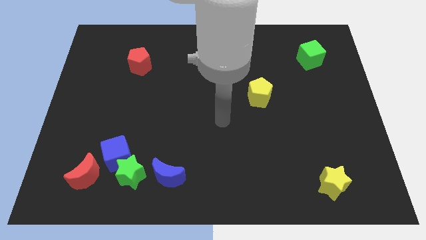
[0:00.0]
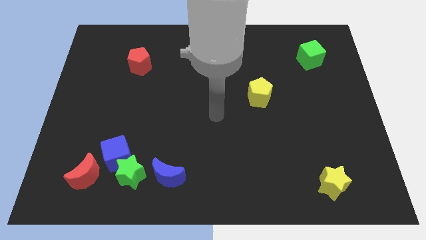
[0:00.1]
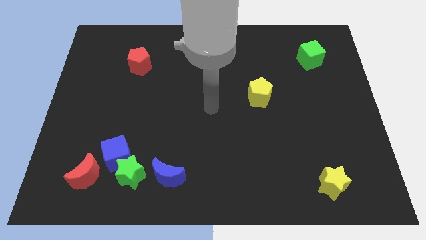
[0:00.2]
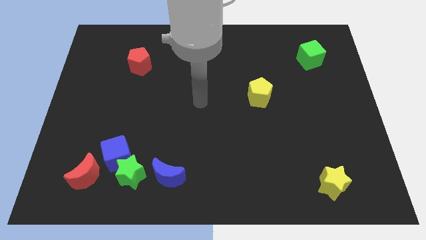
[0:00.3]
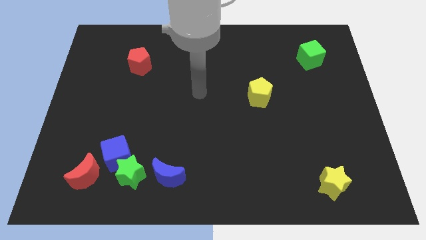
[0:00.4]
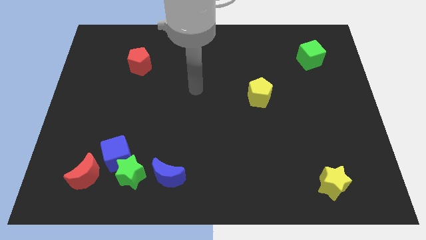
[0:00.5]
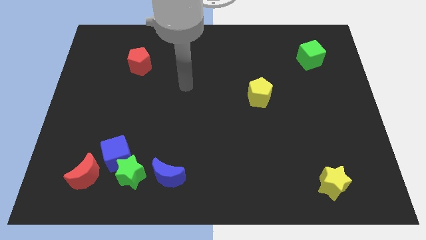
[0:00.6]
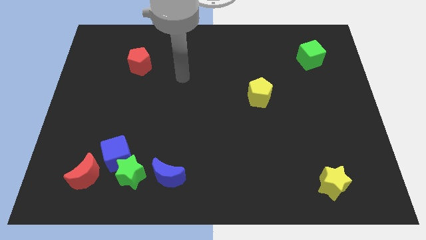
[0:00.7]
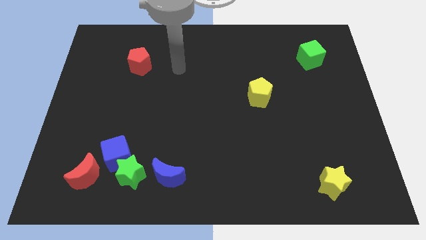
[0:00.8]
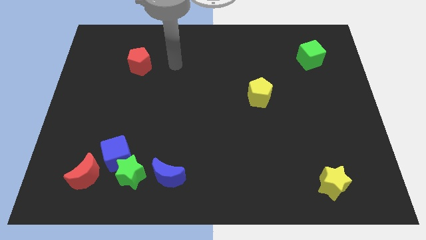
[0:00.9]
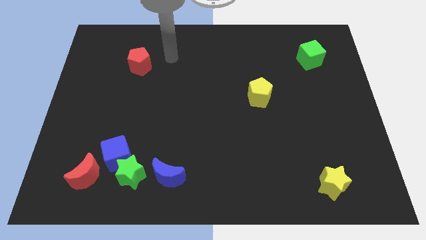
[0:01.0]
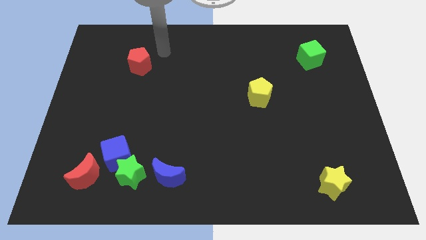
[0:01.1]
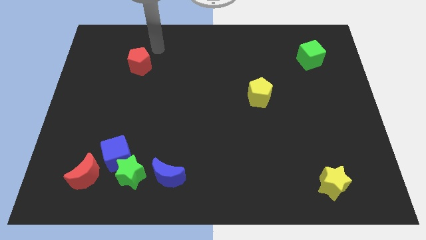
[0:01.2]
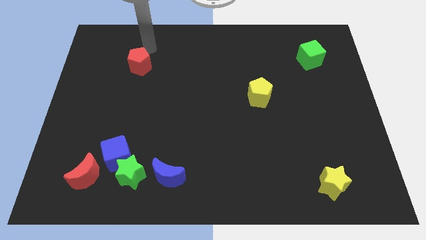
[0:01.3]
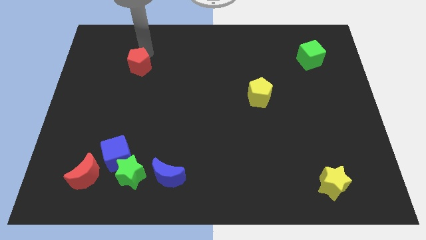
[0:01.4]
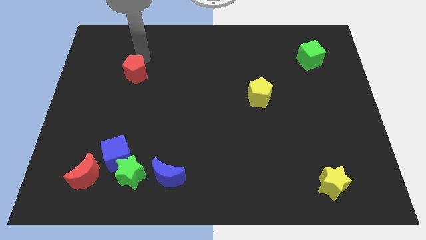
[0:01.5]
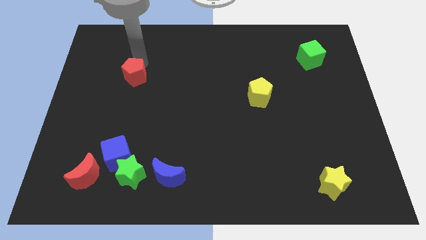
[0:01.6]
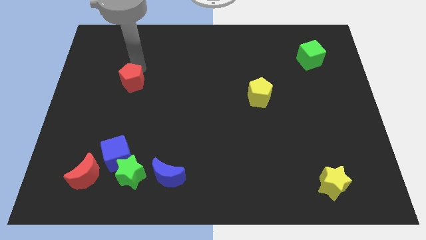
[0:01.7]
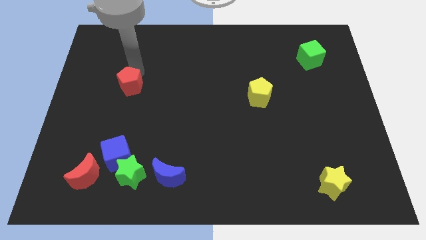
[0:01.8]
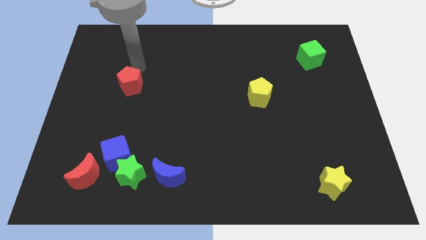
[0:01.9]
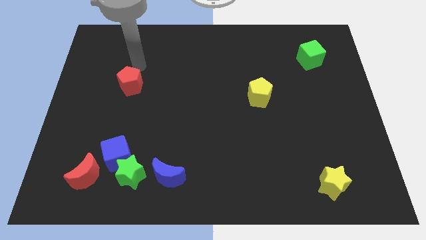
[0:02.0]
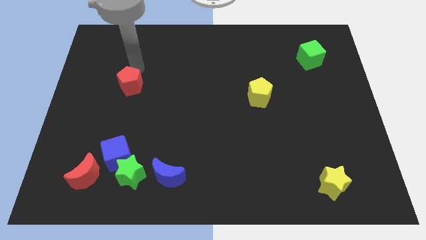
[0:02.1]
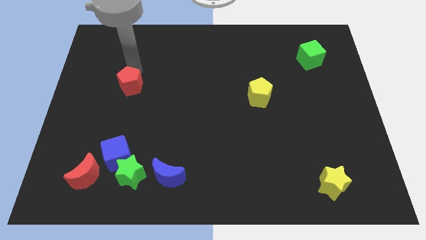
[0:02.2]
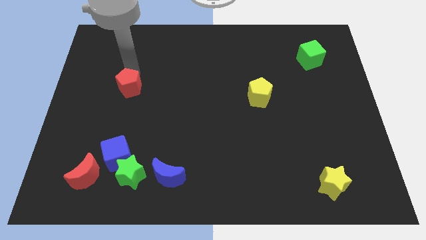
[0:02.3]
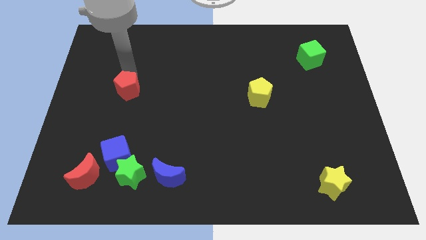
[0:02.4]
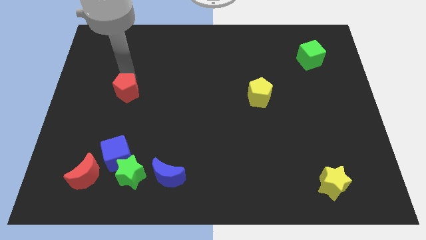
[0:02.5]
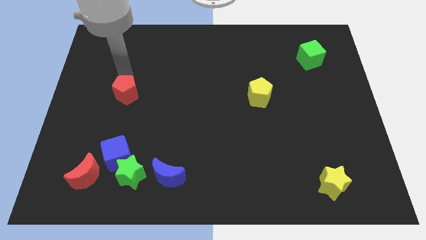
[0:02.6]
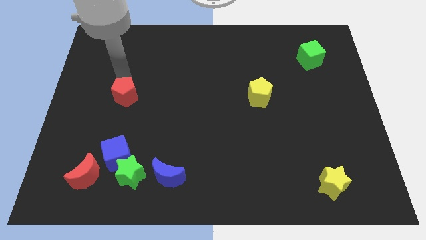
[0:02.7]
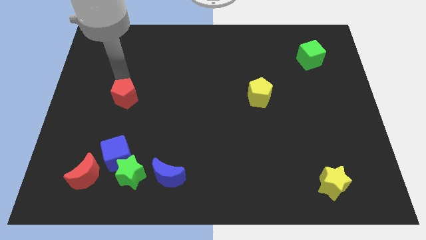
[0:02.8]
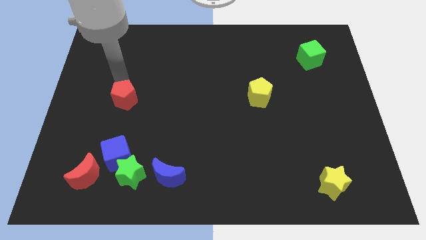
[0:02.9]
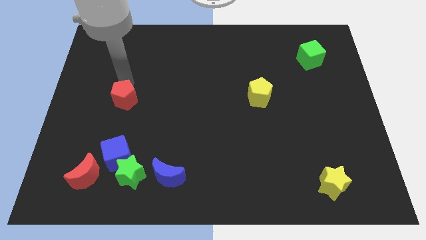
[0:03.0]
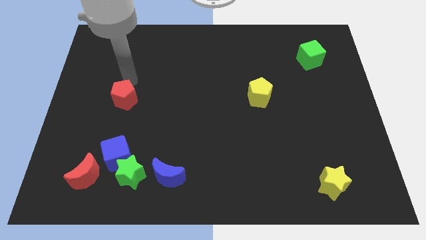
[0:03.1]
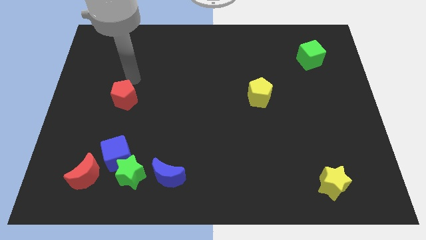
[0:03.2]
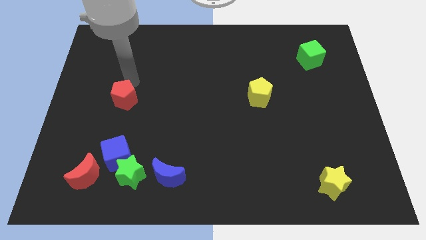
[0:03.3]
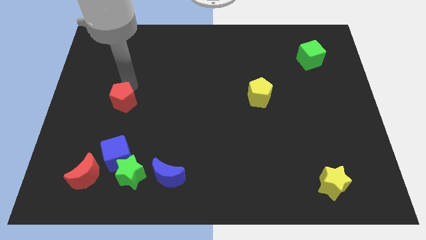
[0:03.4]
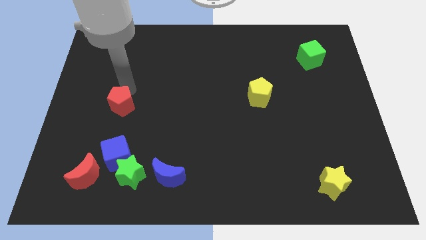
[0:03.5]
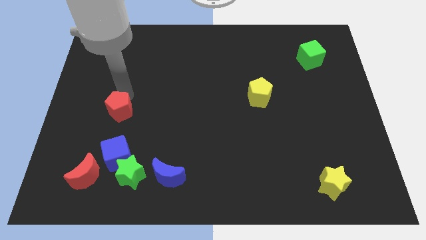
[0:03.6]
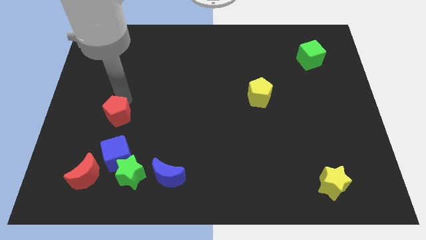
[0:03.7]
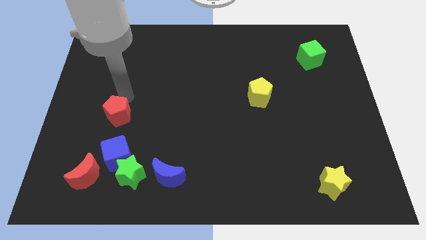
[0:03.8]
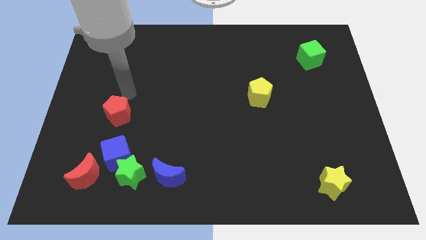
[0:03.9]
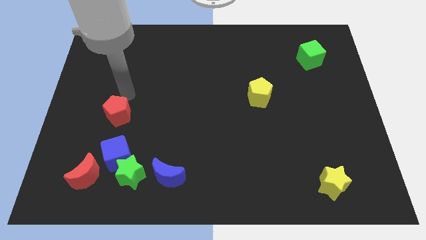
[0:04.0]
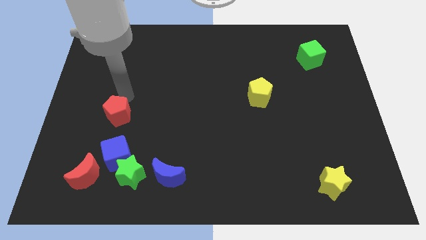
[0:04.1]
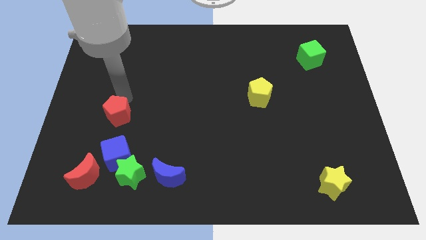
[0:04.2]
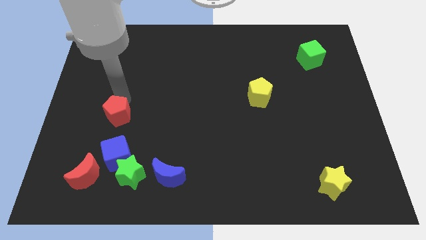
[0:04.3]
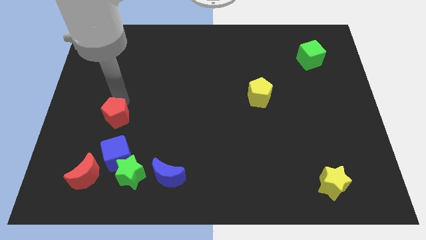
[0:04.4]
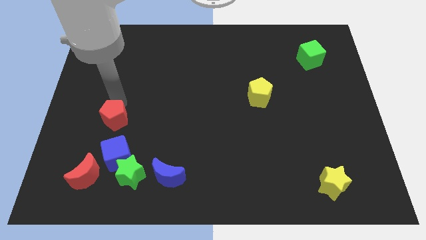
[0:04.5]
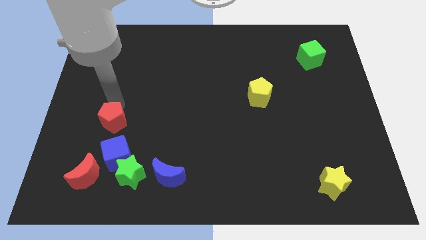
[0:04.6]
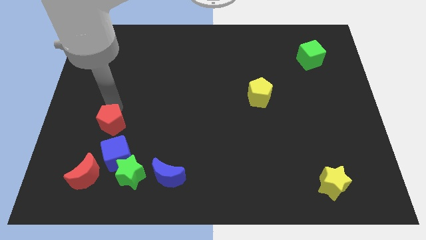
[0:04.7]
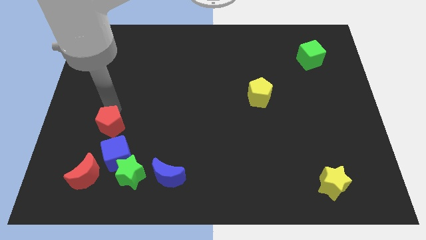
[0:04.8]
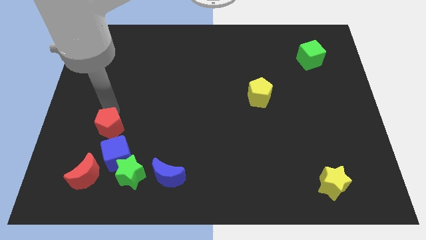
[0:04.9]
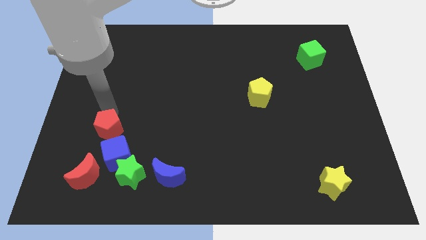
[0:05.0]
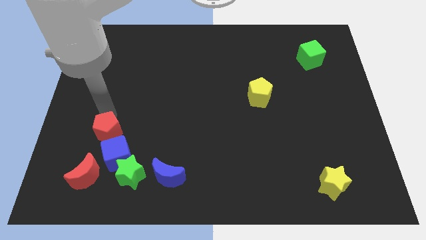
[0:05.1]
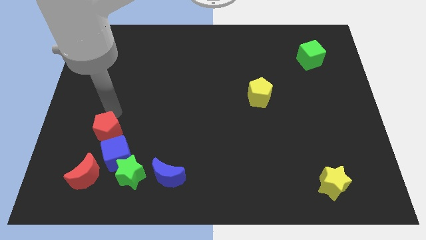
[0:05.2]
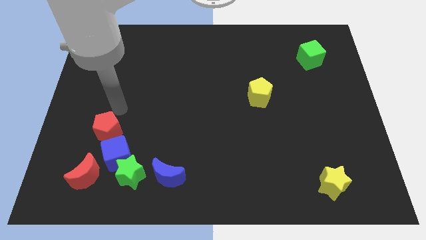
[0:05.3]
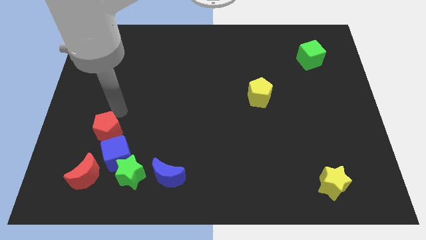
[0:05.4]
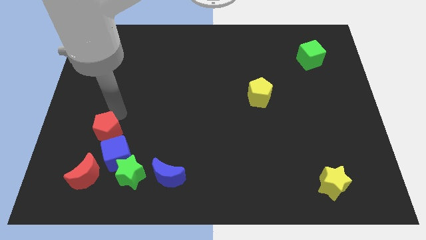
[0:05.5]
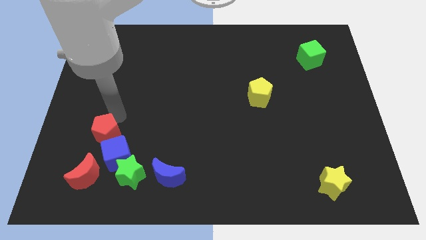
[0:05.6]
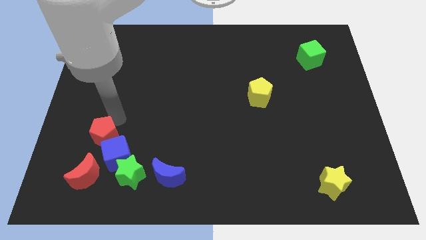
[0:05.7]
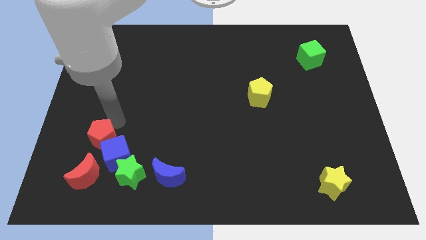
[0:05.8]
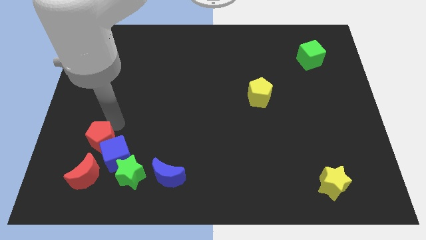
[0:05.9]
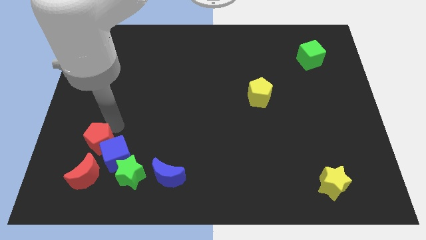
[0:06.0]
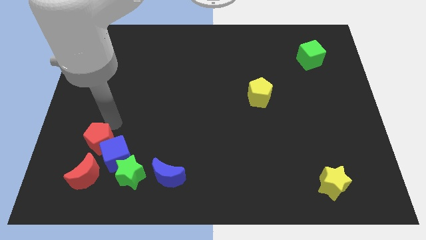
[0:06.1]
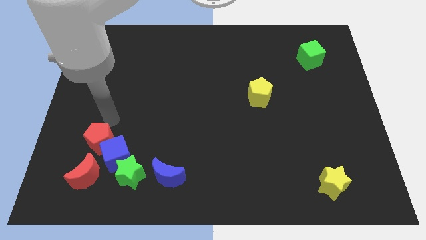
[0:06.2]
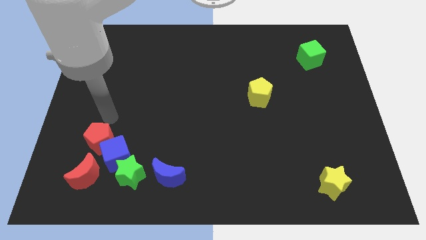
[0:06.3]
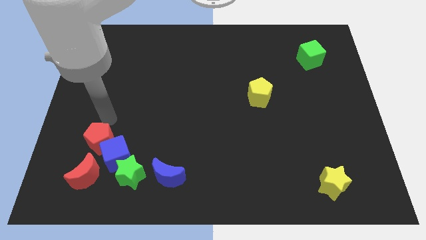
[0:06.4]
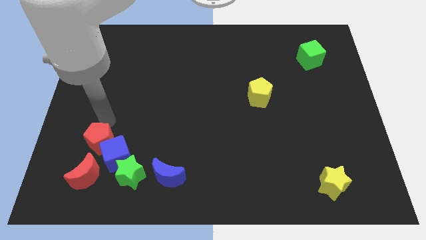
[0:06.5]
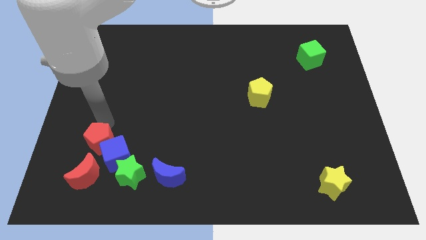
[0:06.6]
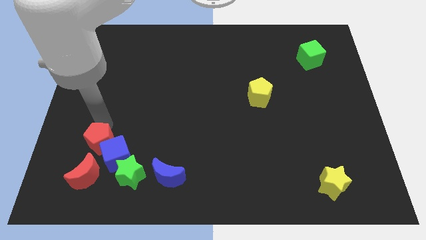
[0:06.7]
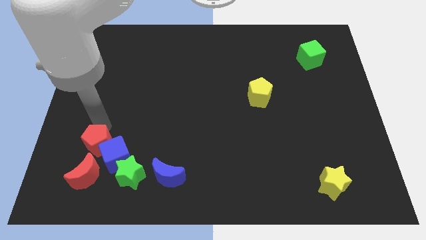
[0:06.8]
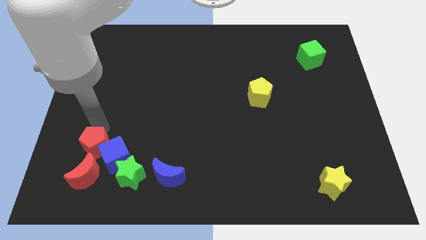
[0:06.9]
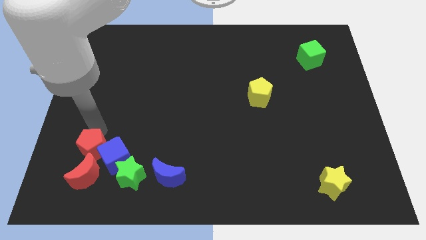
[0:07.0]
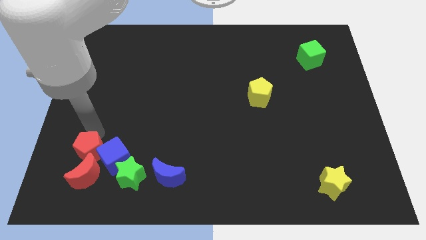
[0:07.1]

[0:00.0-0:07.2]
push the red pentagon next to the red moon
